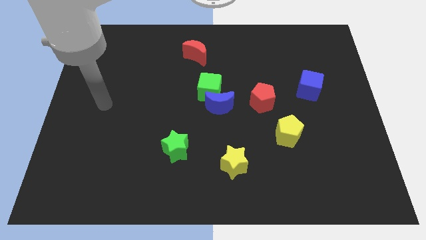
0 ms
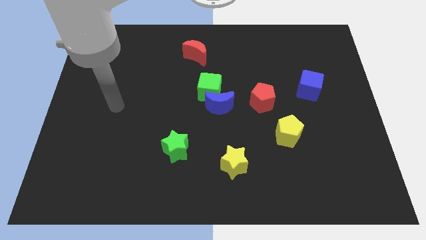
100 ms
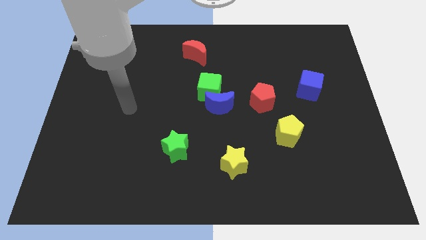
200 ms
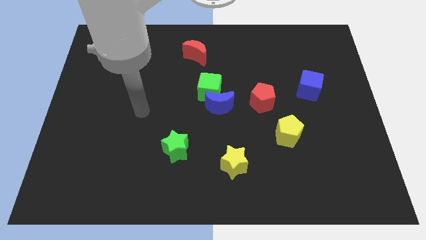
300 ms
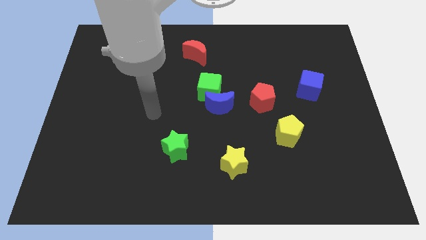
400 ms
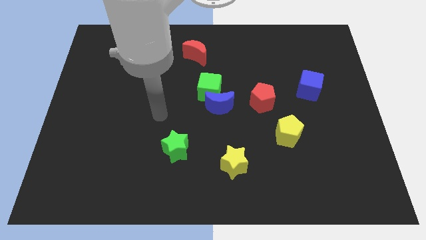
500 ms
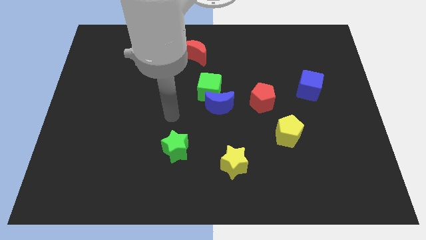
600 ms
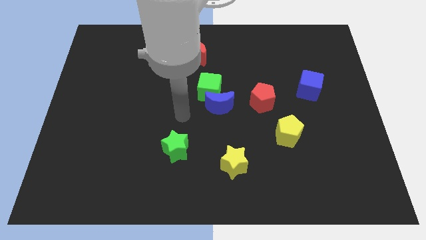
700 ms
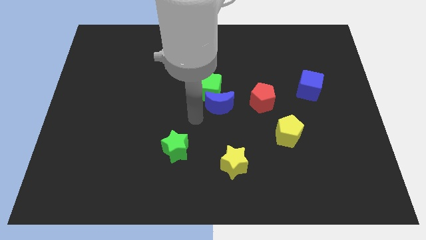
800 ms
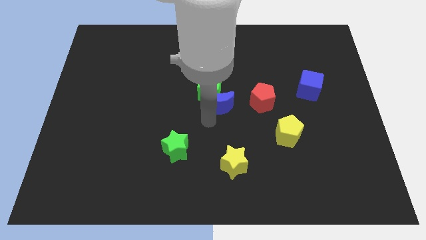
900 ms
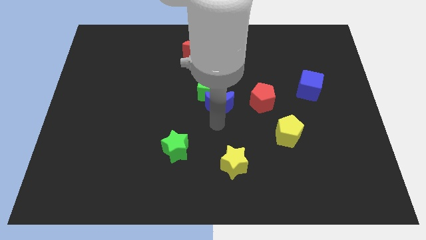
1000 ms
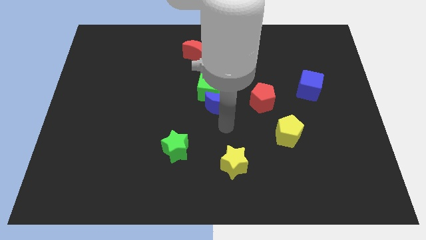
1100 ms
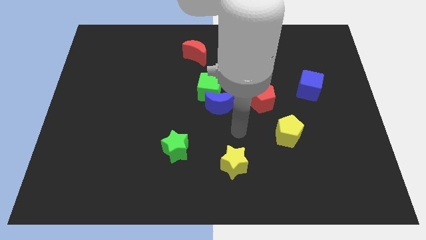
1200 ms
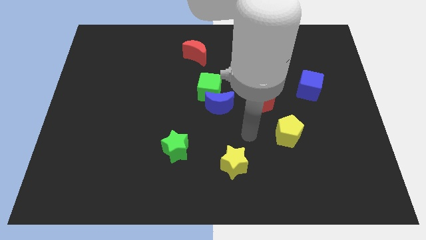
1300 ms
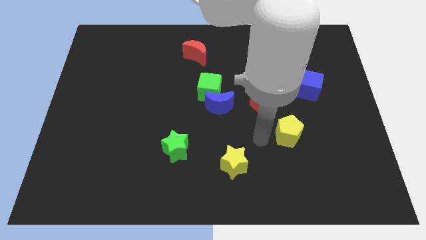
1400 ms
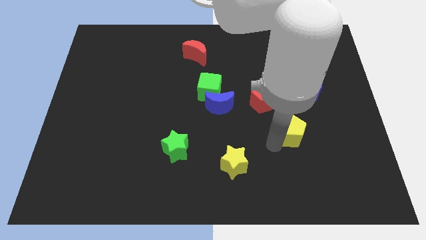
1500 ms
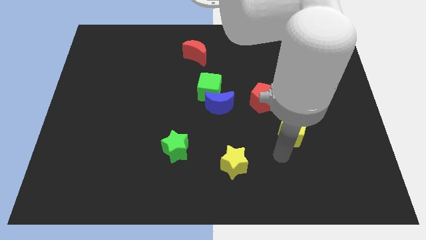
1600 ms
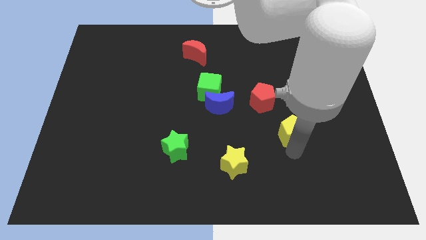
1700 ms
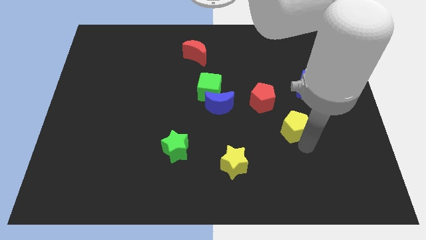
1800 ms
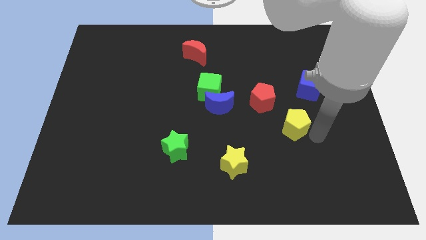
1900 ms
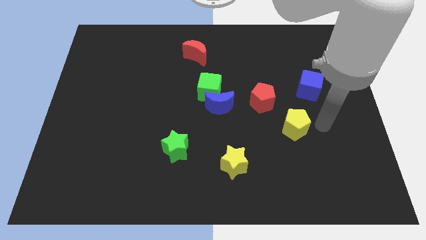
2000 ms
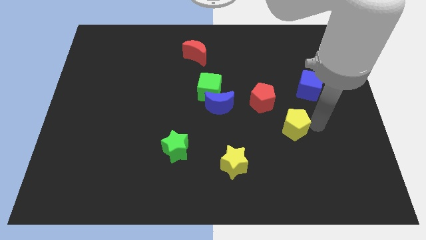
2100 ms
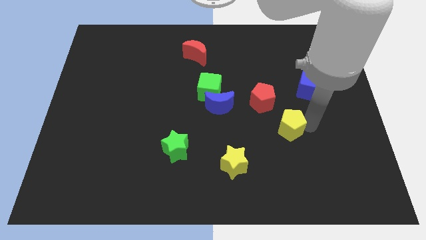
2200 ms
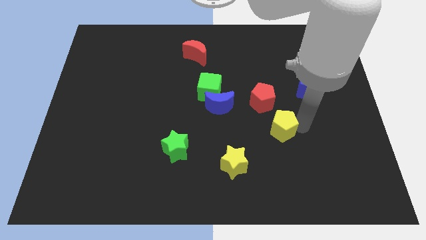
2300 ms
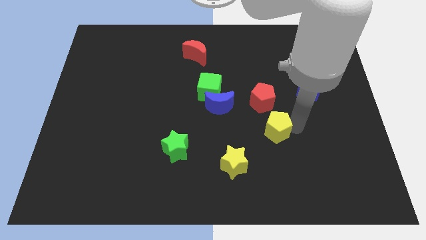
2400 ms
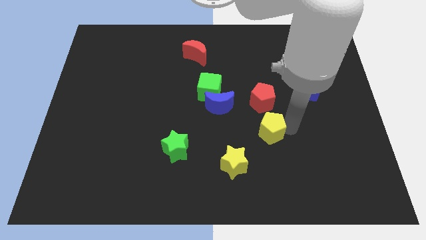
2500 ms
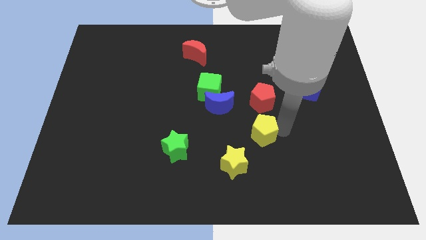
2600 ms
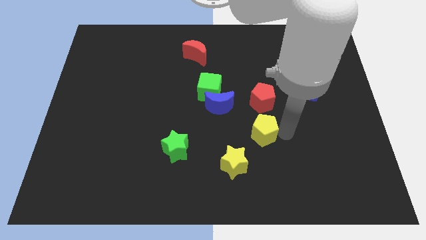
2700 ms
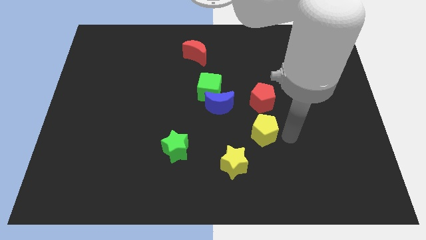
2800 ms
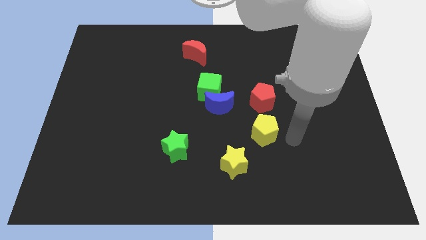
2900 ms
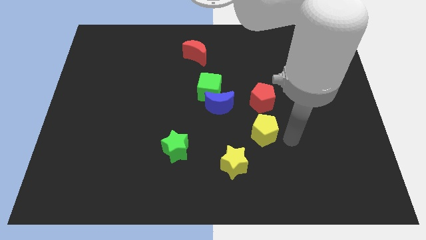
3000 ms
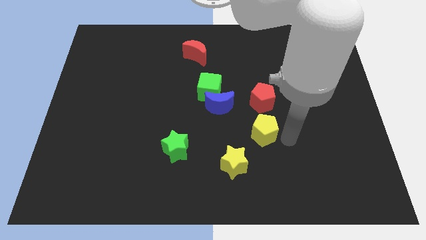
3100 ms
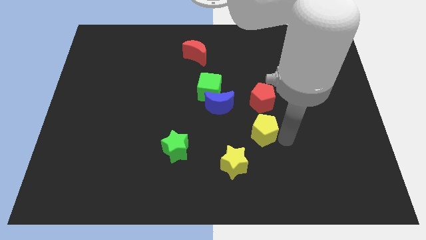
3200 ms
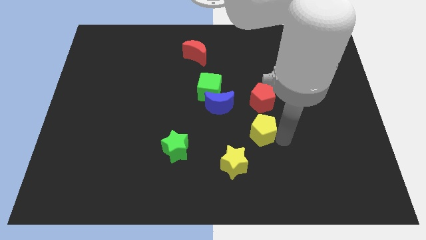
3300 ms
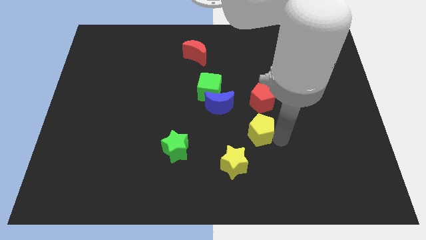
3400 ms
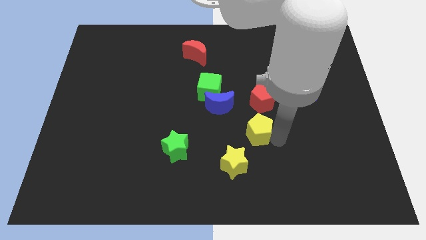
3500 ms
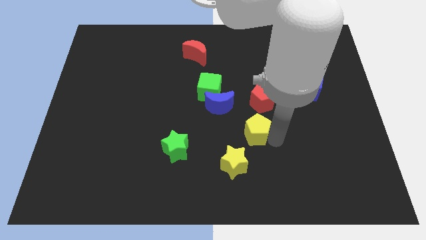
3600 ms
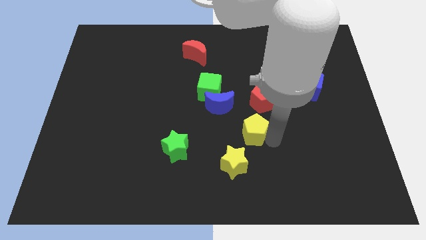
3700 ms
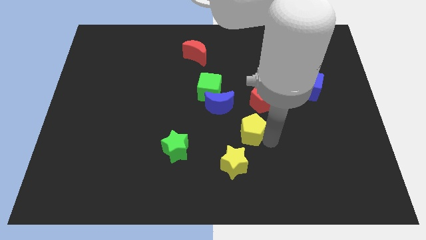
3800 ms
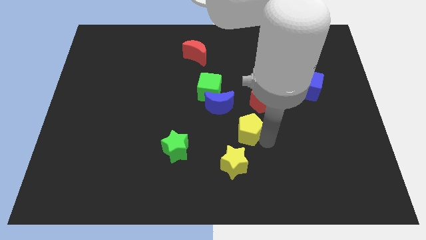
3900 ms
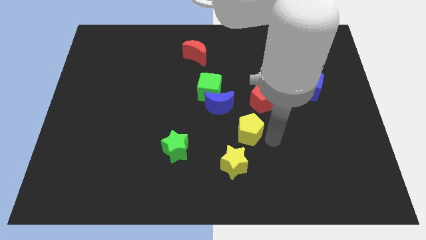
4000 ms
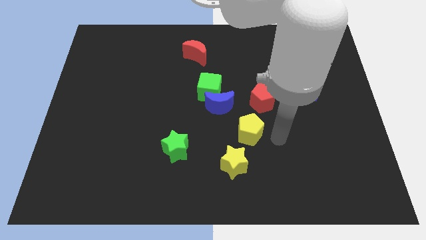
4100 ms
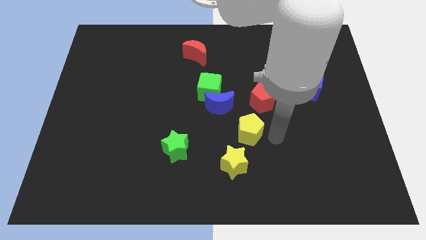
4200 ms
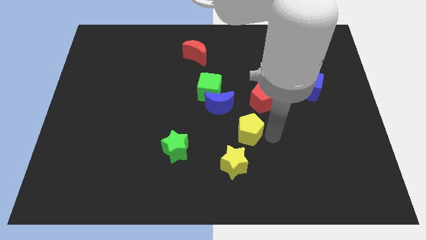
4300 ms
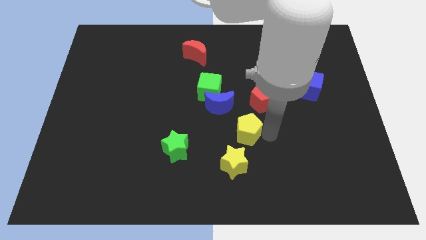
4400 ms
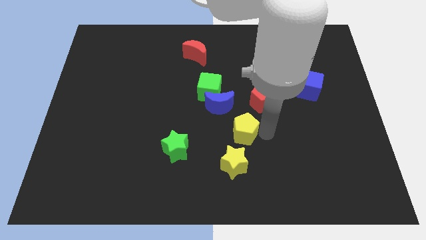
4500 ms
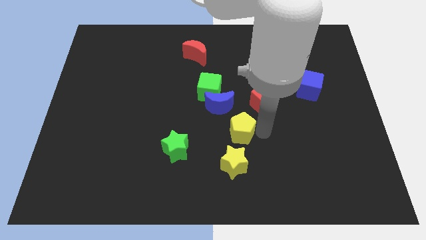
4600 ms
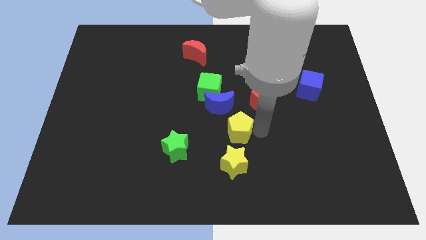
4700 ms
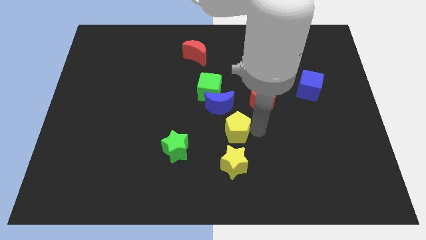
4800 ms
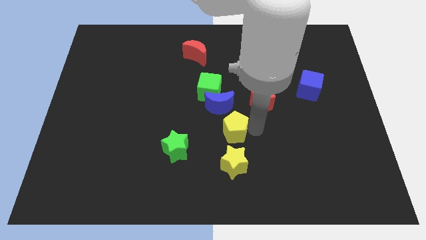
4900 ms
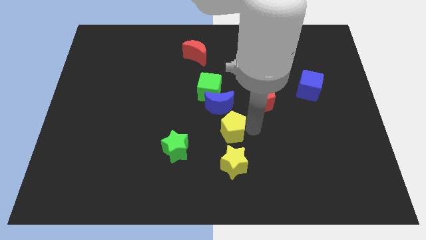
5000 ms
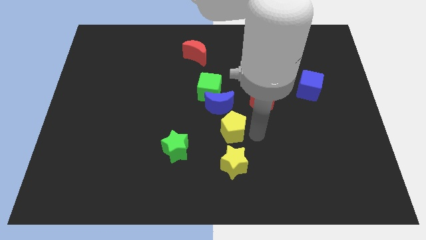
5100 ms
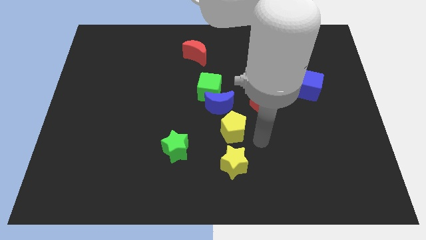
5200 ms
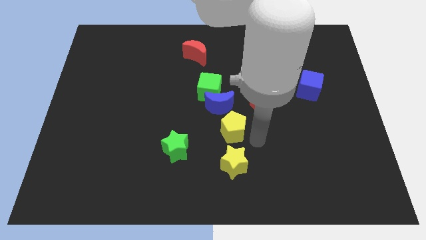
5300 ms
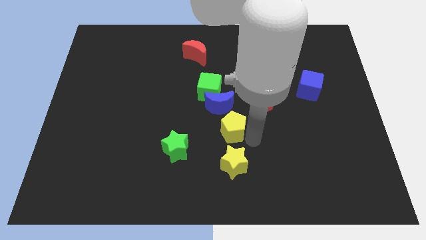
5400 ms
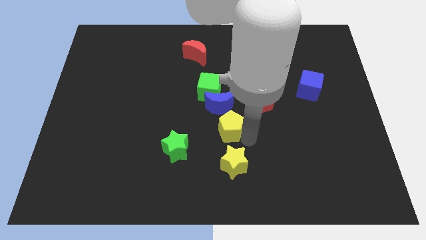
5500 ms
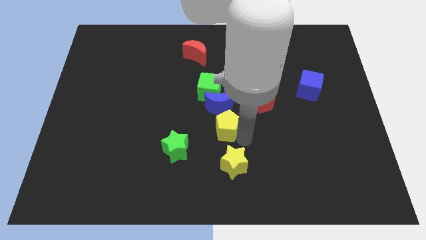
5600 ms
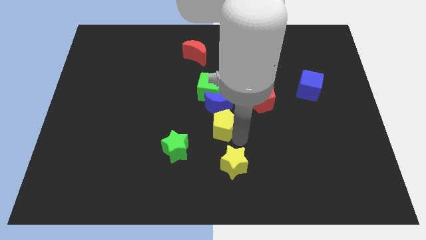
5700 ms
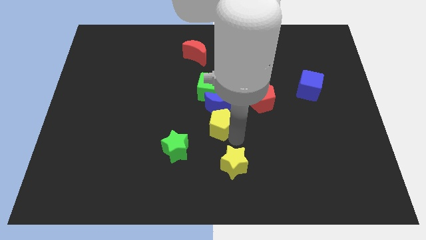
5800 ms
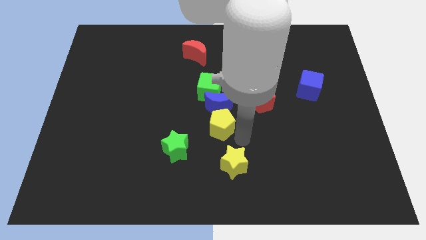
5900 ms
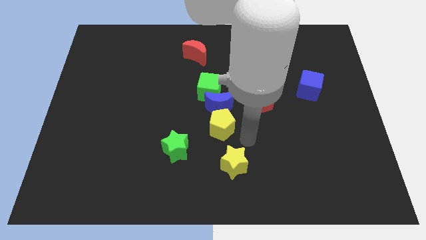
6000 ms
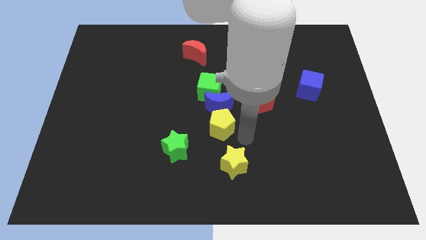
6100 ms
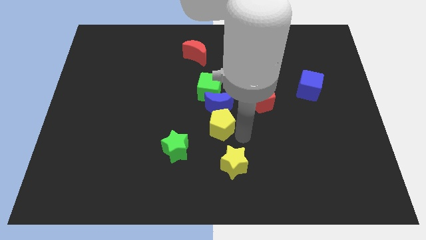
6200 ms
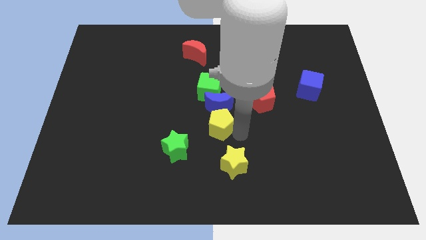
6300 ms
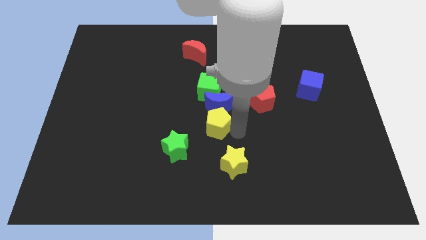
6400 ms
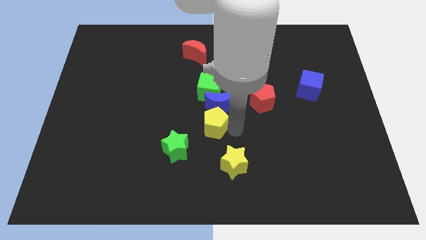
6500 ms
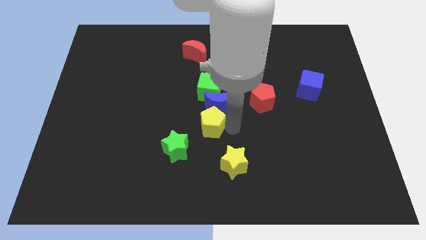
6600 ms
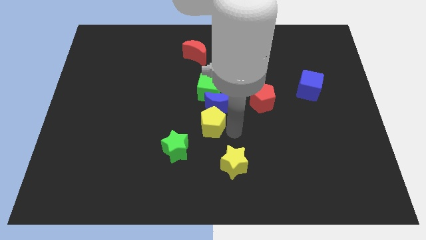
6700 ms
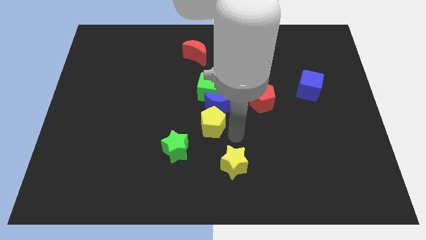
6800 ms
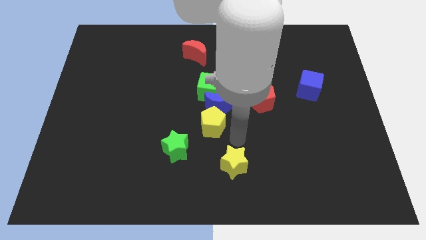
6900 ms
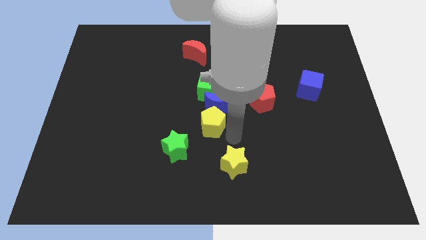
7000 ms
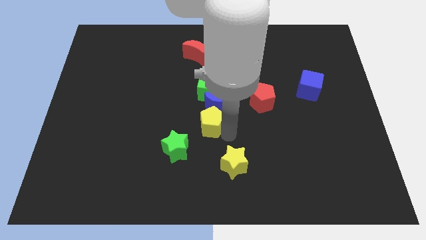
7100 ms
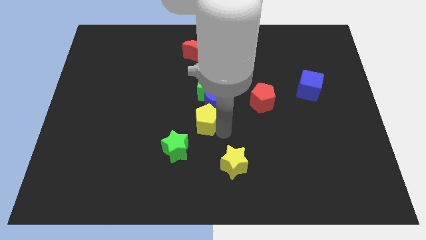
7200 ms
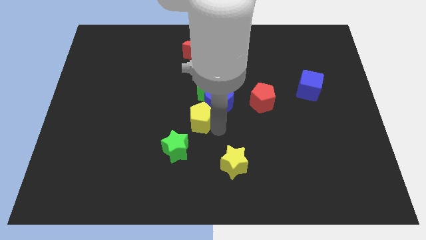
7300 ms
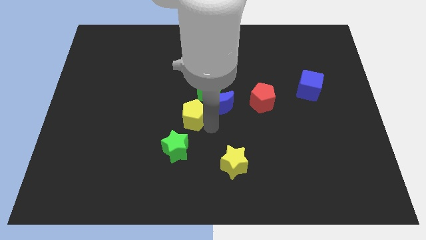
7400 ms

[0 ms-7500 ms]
slide the yellow pentagon to the bottom left of the green cube
